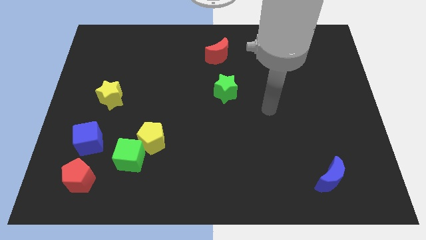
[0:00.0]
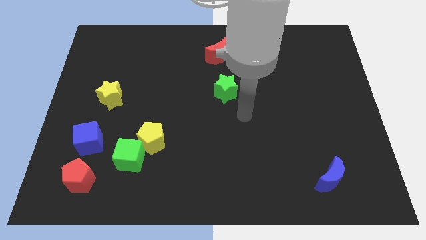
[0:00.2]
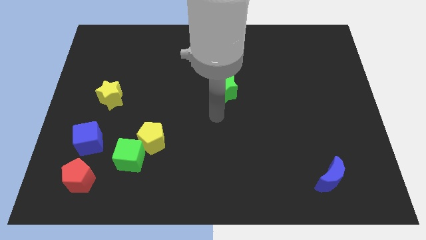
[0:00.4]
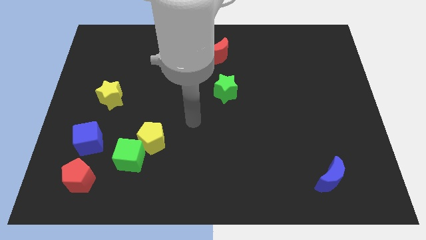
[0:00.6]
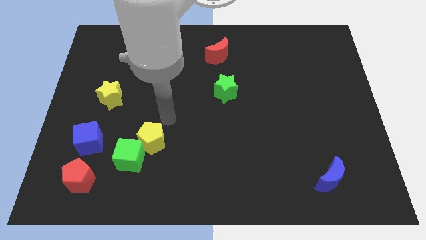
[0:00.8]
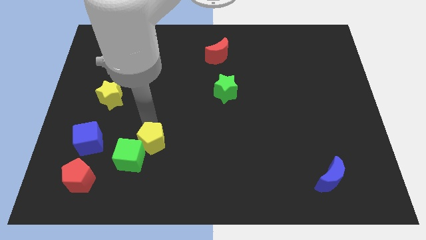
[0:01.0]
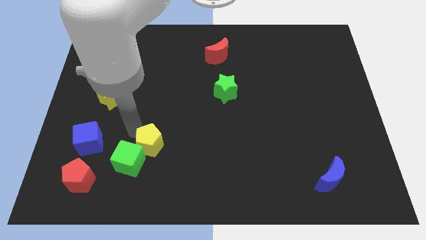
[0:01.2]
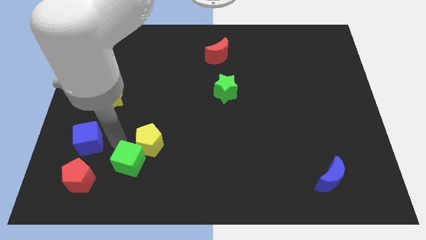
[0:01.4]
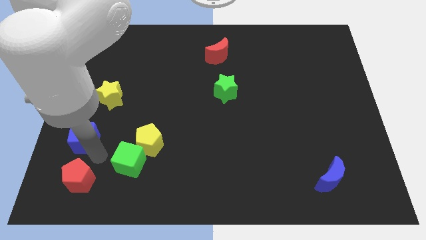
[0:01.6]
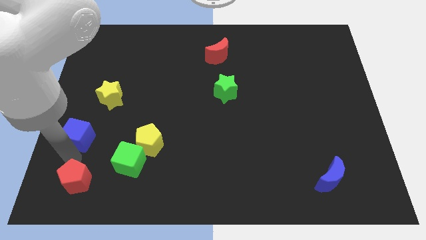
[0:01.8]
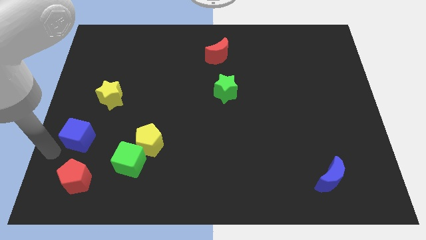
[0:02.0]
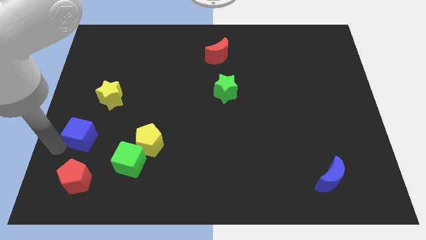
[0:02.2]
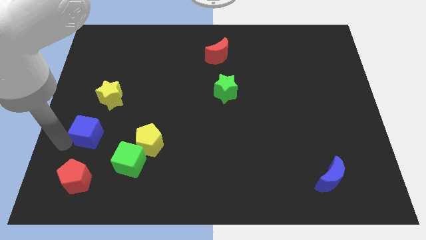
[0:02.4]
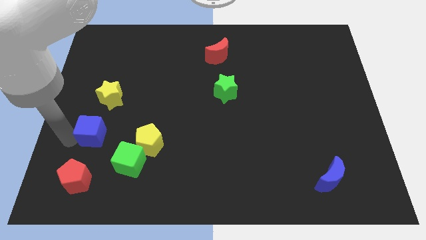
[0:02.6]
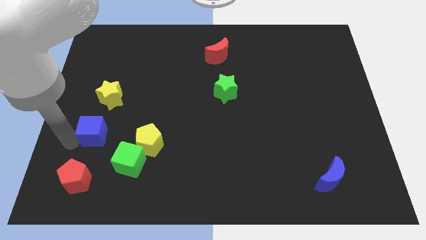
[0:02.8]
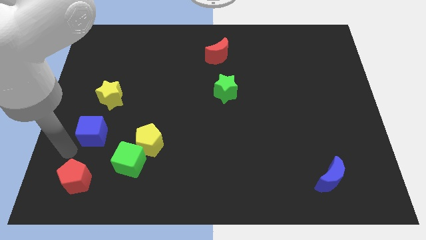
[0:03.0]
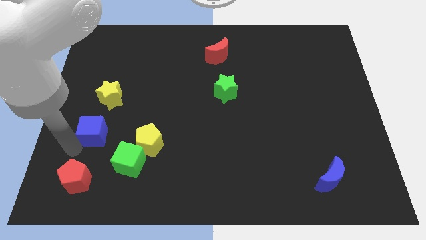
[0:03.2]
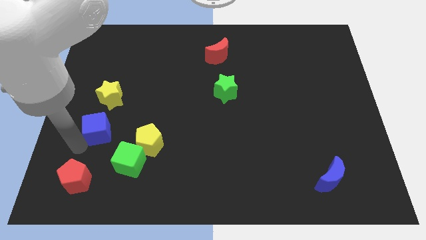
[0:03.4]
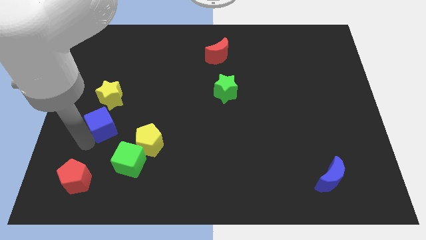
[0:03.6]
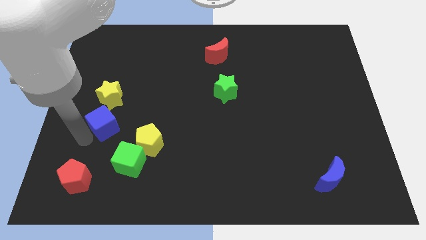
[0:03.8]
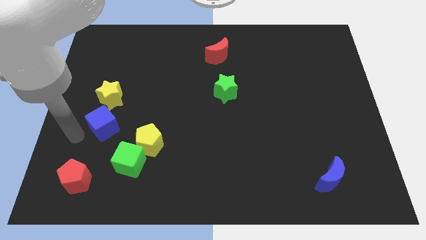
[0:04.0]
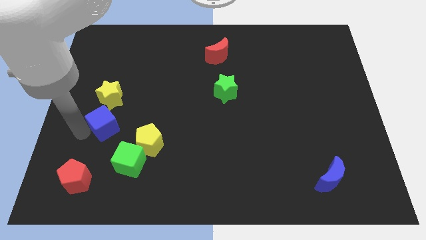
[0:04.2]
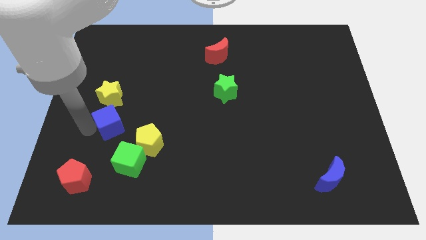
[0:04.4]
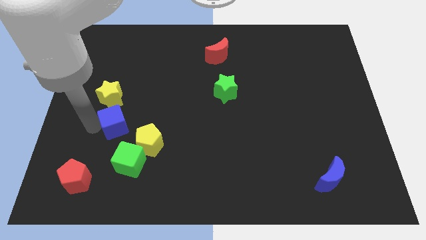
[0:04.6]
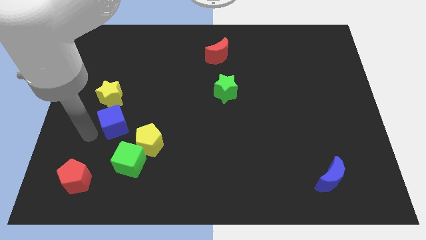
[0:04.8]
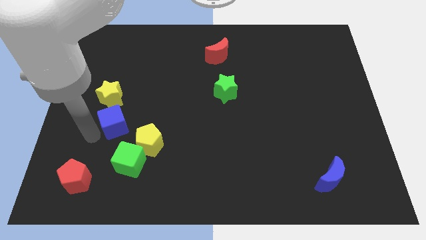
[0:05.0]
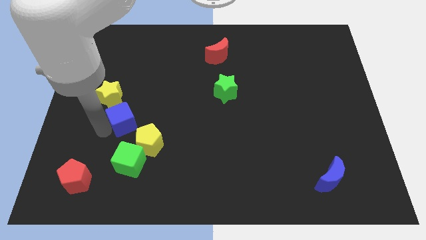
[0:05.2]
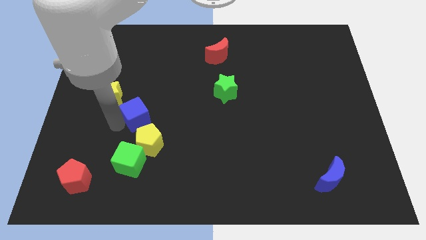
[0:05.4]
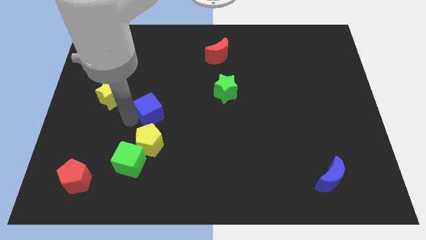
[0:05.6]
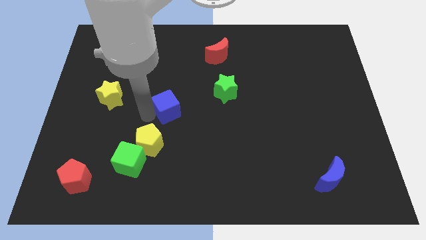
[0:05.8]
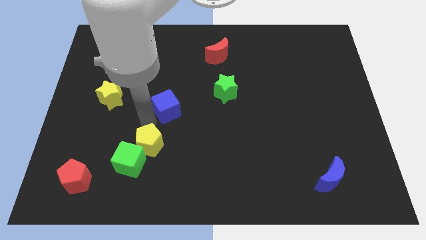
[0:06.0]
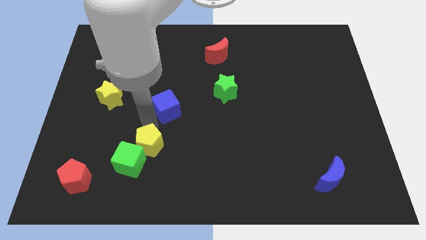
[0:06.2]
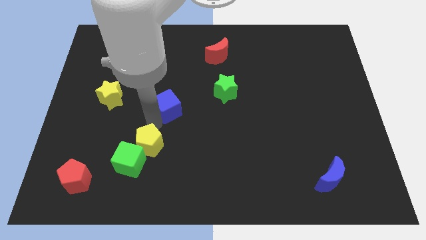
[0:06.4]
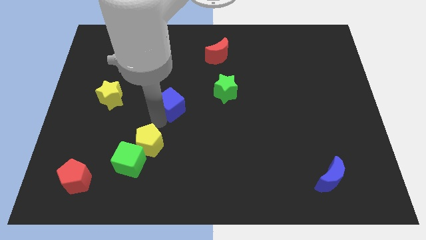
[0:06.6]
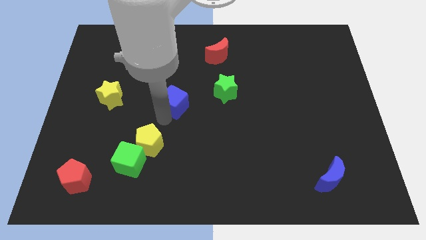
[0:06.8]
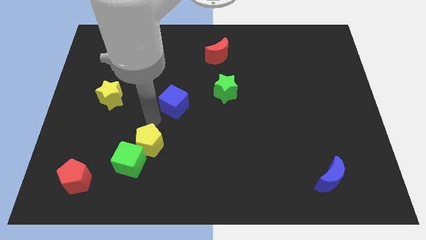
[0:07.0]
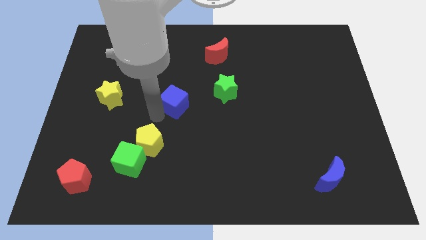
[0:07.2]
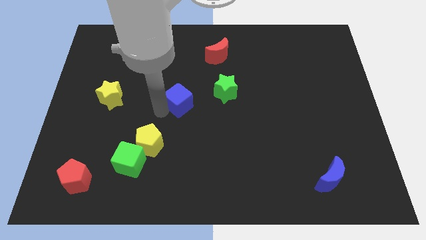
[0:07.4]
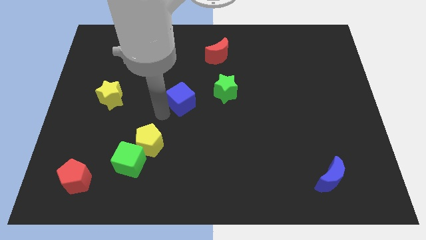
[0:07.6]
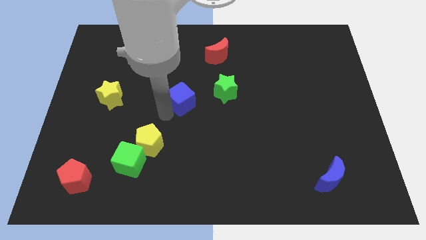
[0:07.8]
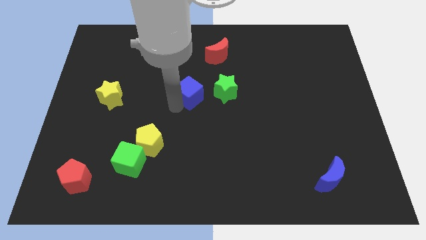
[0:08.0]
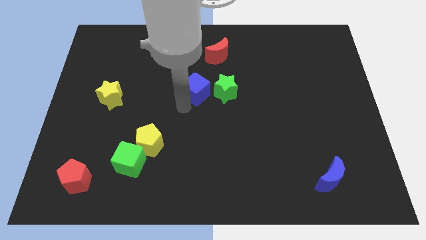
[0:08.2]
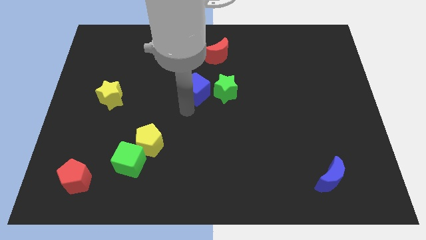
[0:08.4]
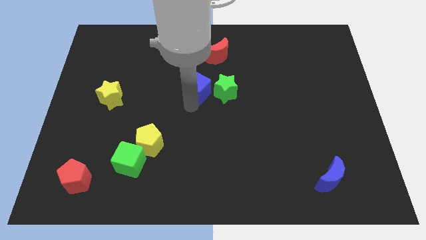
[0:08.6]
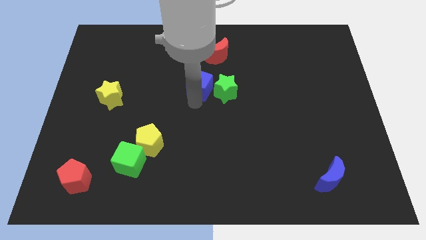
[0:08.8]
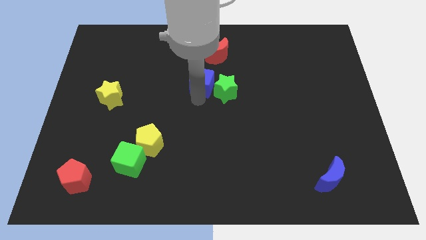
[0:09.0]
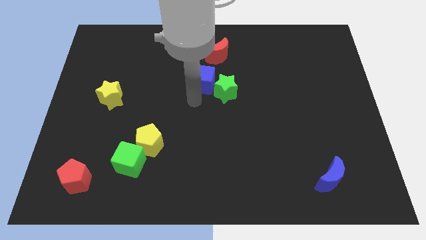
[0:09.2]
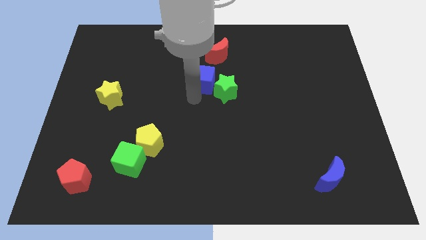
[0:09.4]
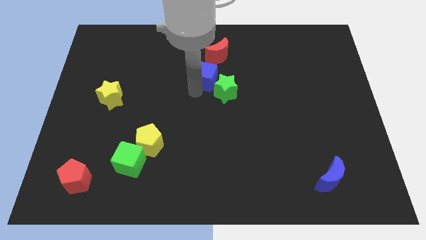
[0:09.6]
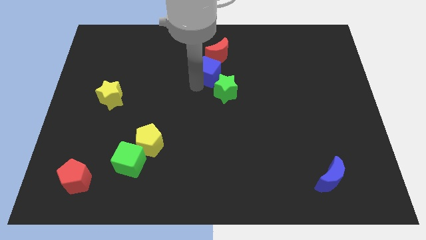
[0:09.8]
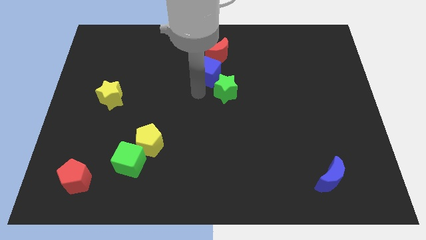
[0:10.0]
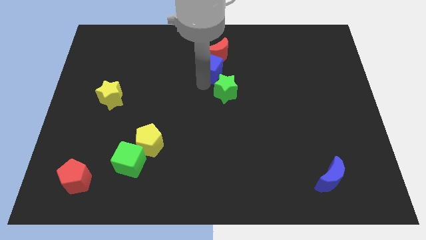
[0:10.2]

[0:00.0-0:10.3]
slide the blue cube next to the red moon

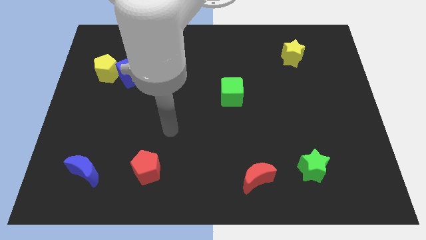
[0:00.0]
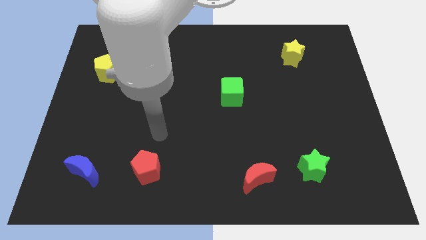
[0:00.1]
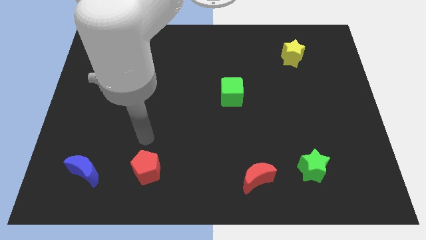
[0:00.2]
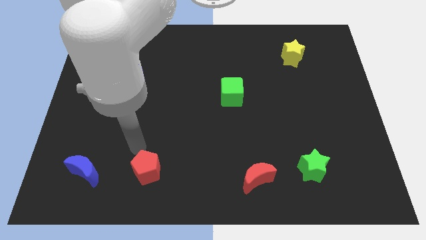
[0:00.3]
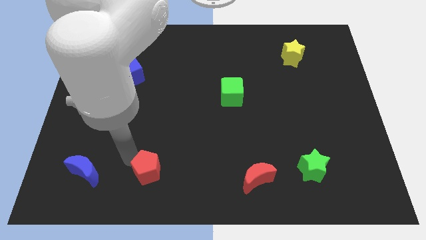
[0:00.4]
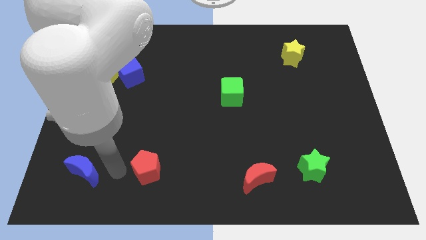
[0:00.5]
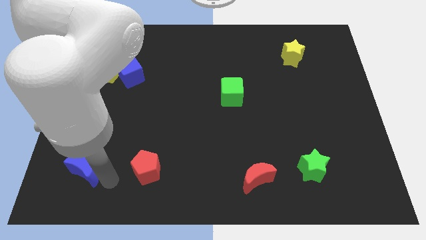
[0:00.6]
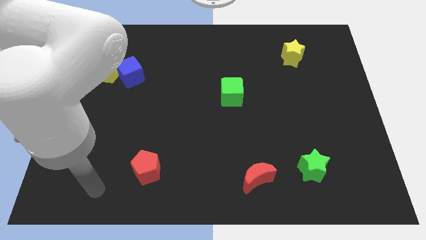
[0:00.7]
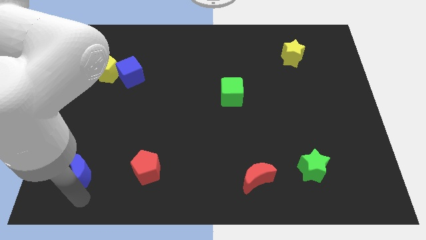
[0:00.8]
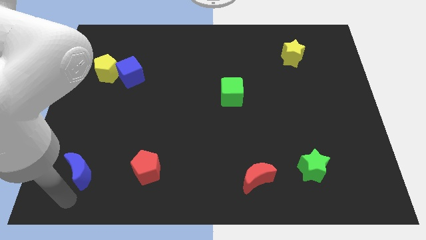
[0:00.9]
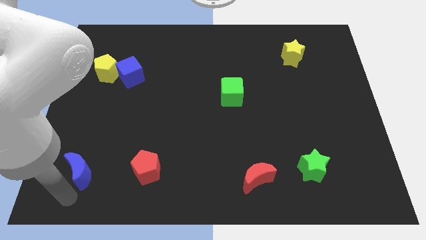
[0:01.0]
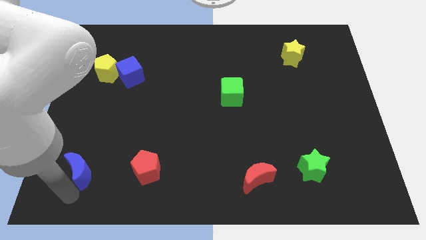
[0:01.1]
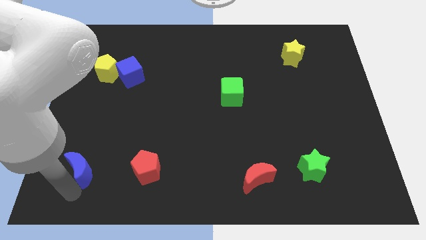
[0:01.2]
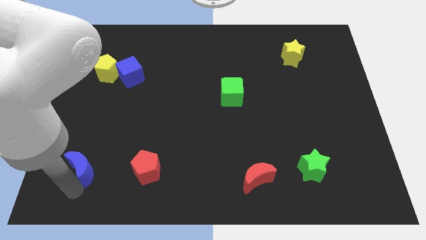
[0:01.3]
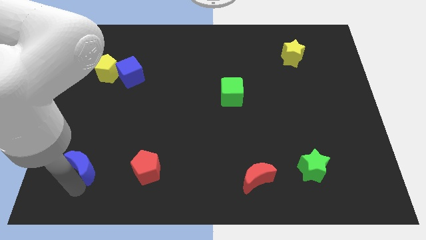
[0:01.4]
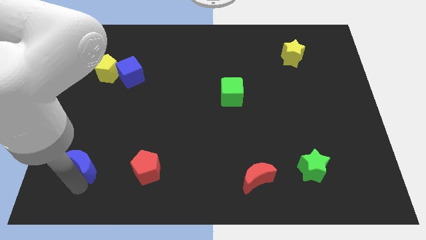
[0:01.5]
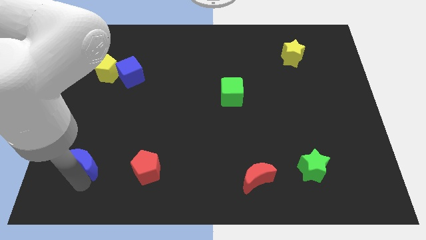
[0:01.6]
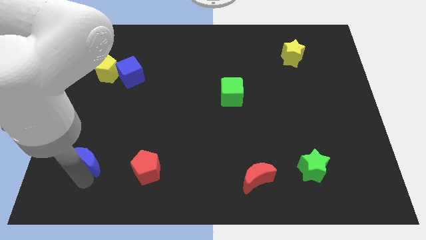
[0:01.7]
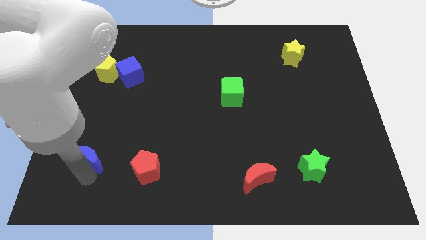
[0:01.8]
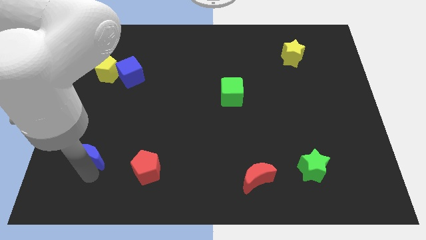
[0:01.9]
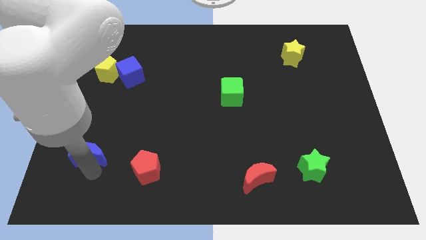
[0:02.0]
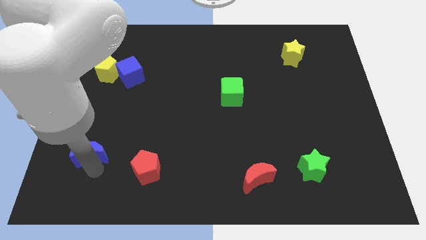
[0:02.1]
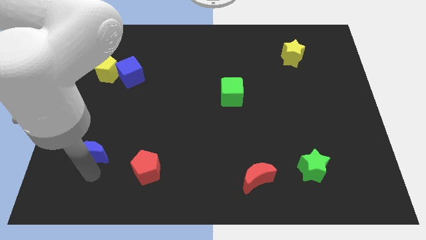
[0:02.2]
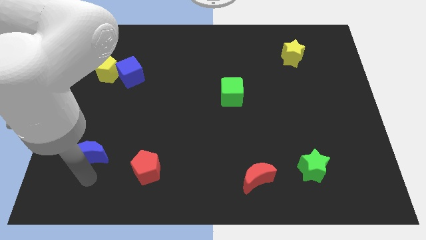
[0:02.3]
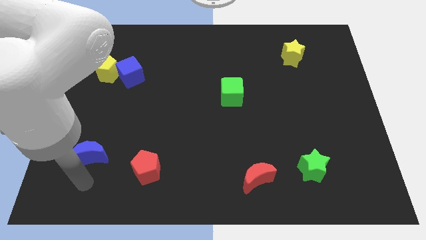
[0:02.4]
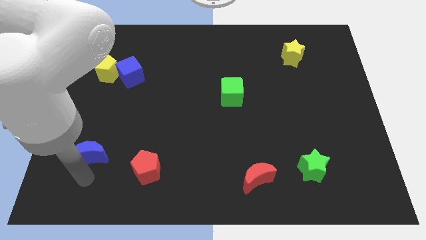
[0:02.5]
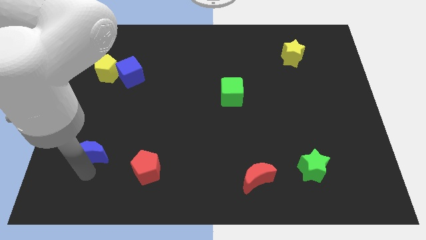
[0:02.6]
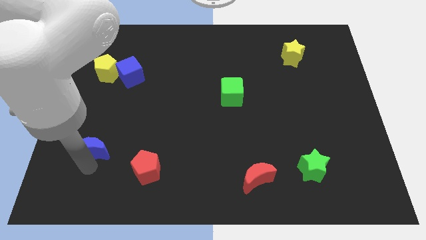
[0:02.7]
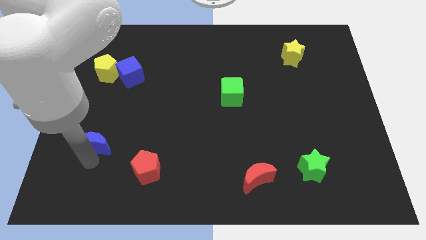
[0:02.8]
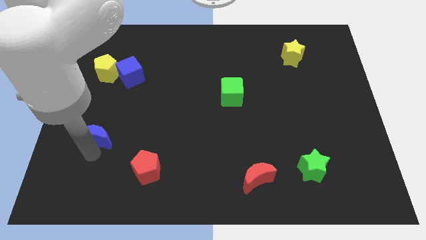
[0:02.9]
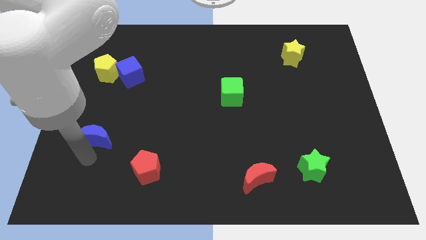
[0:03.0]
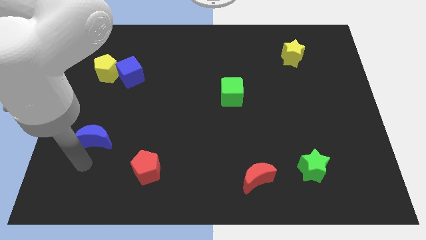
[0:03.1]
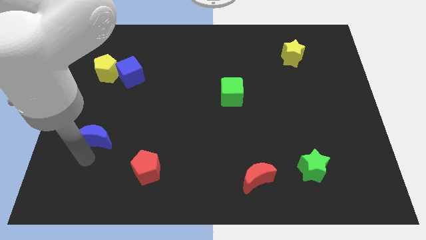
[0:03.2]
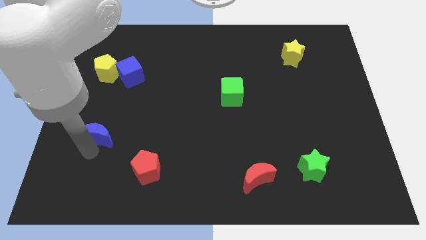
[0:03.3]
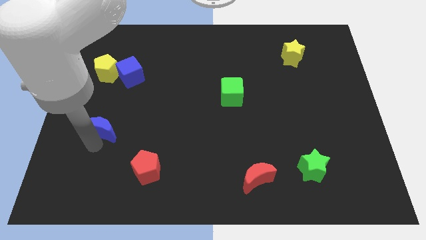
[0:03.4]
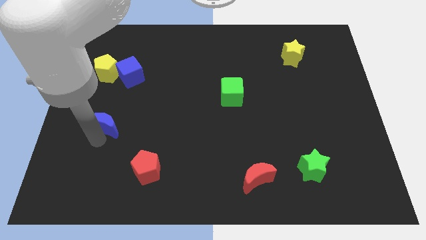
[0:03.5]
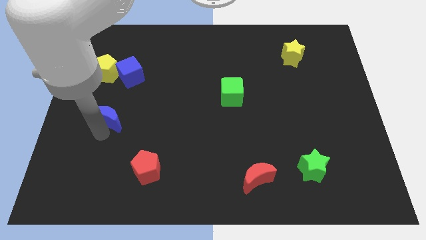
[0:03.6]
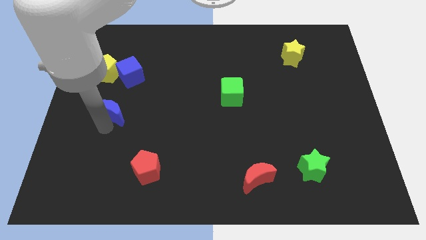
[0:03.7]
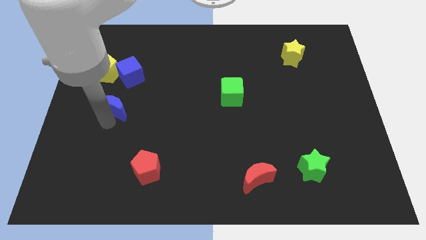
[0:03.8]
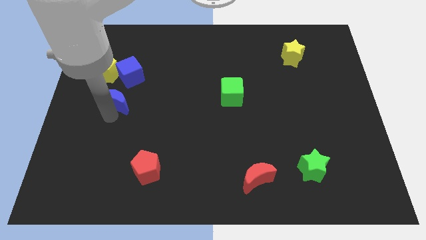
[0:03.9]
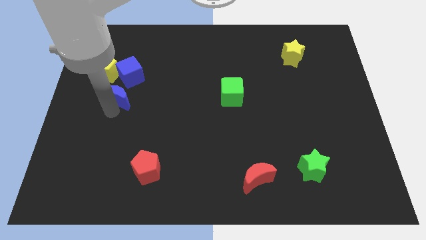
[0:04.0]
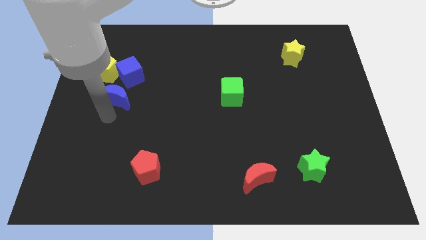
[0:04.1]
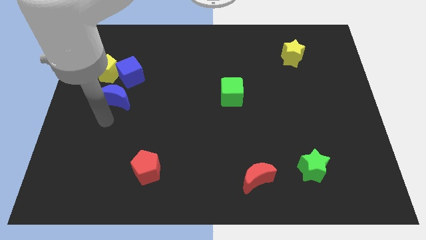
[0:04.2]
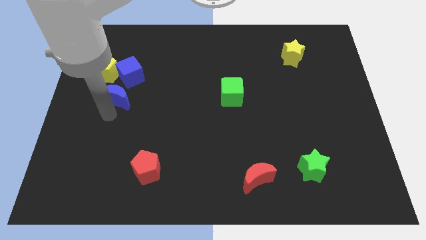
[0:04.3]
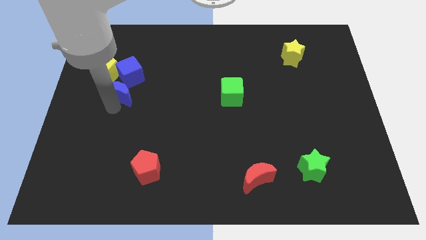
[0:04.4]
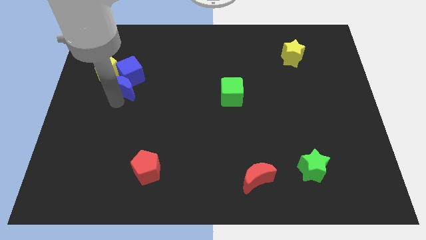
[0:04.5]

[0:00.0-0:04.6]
put the blue moon towards the blue cube
